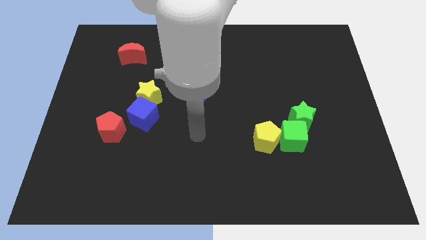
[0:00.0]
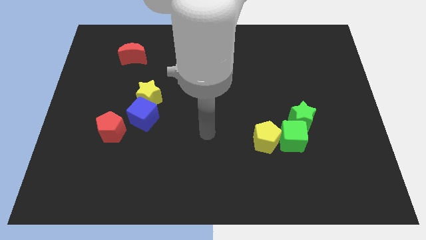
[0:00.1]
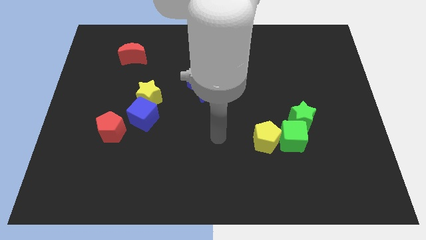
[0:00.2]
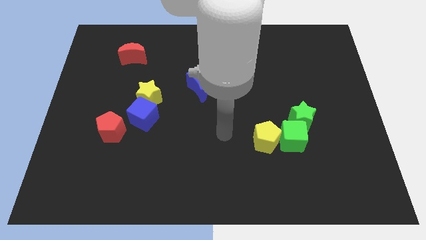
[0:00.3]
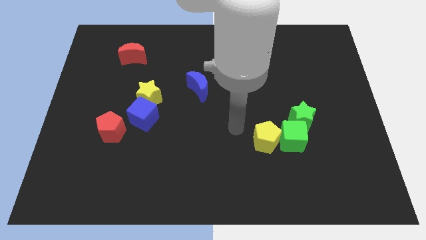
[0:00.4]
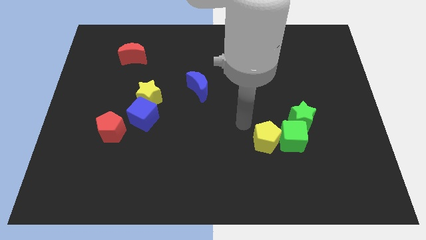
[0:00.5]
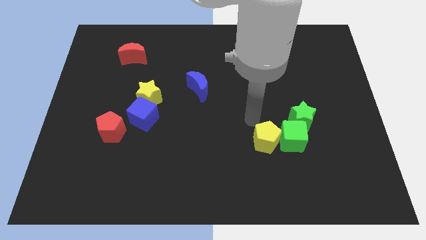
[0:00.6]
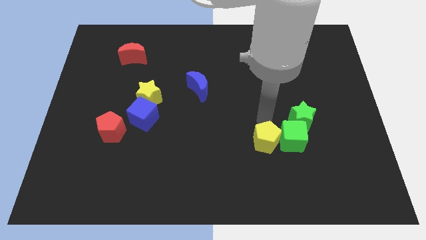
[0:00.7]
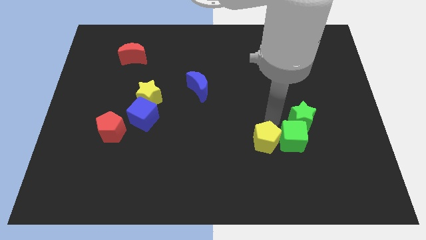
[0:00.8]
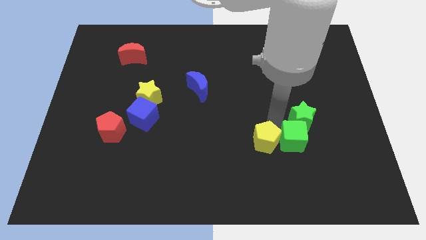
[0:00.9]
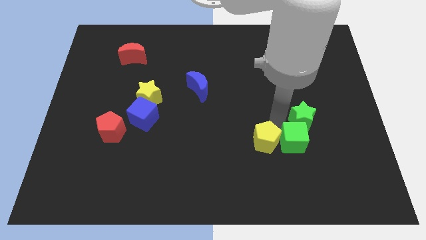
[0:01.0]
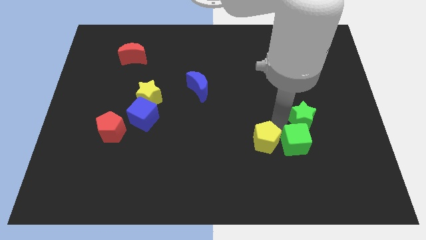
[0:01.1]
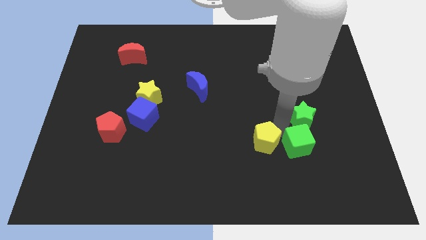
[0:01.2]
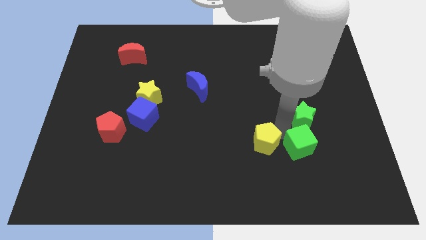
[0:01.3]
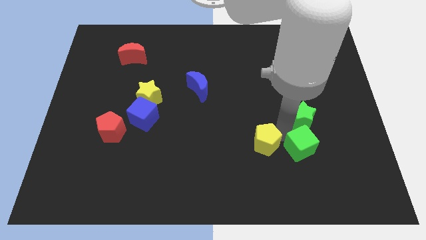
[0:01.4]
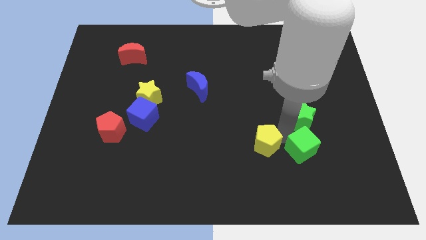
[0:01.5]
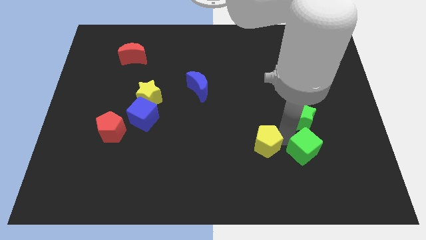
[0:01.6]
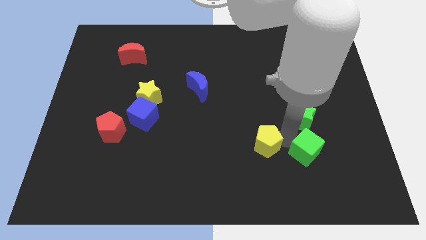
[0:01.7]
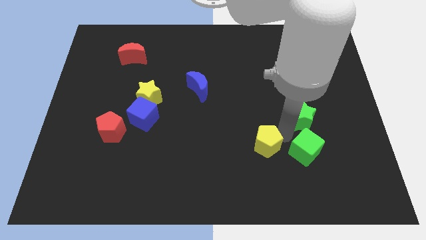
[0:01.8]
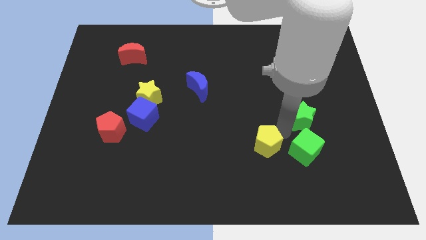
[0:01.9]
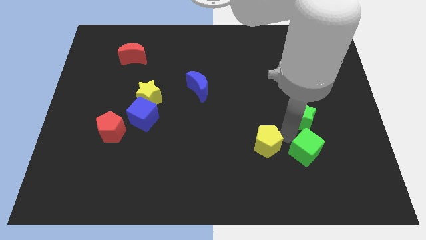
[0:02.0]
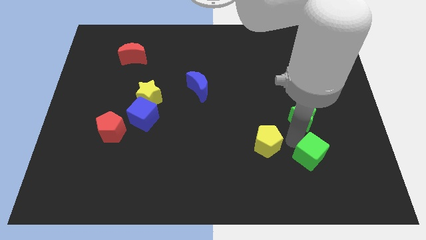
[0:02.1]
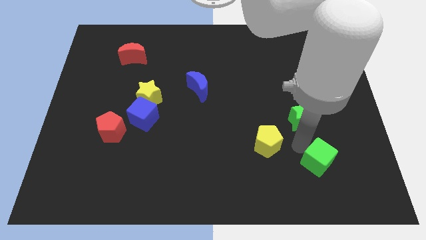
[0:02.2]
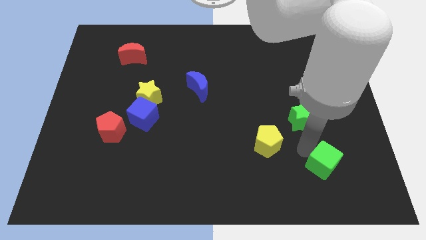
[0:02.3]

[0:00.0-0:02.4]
separate the green cube from the green star and yellow pentagon

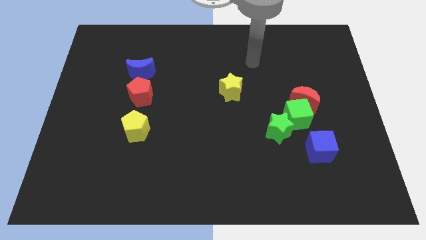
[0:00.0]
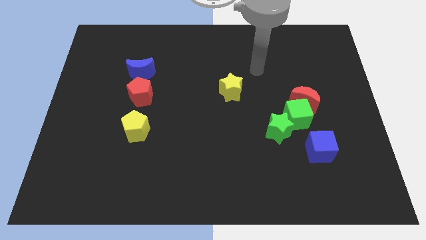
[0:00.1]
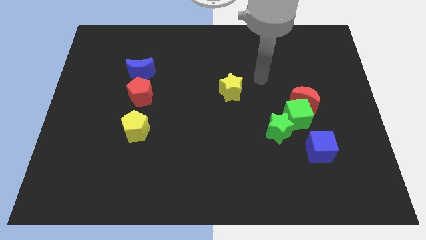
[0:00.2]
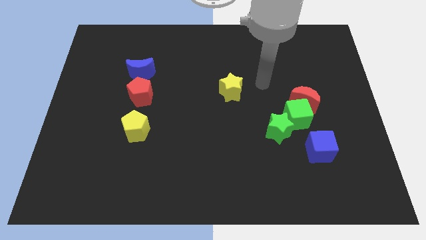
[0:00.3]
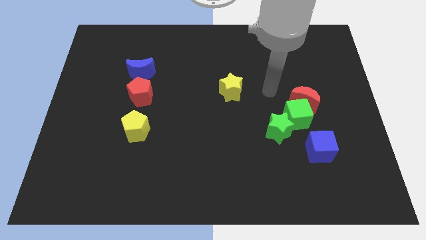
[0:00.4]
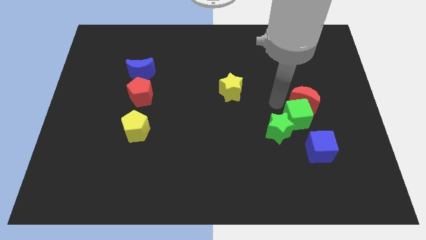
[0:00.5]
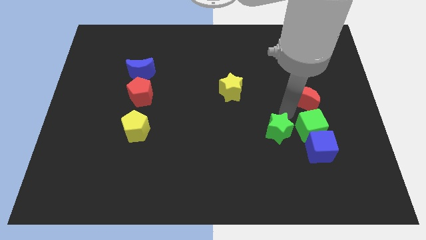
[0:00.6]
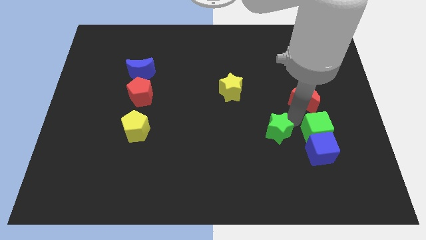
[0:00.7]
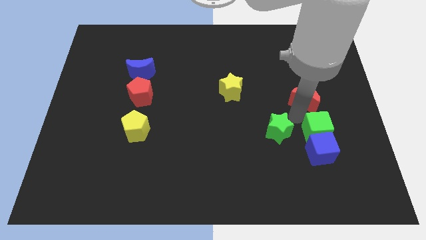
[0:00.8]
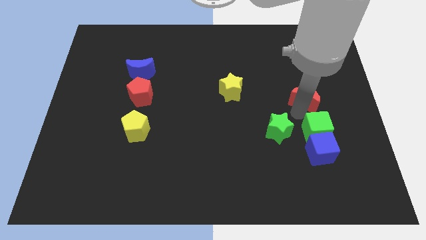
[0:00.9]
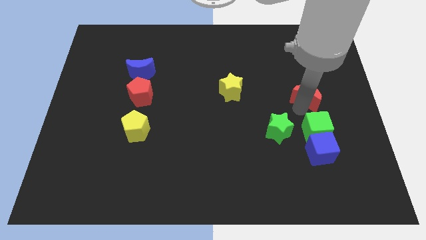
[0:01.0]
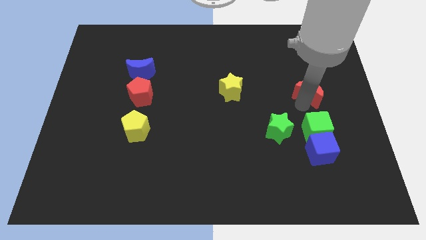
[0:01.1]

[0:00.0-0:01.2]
move the red moon away from the green cube

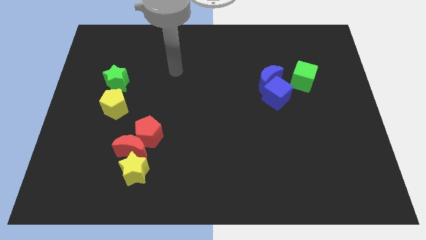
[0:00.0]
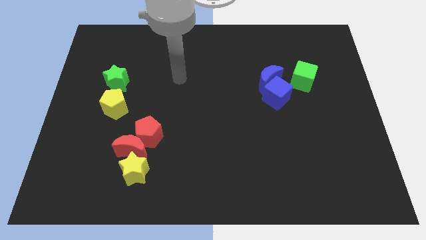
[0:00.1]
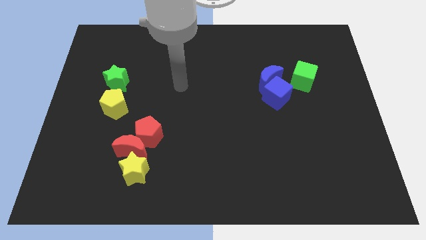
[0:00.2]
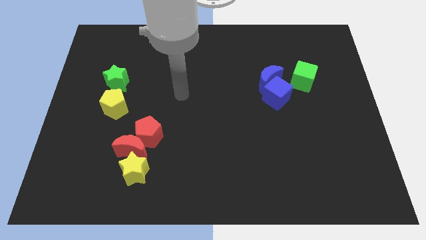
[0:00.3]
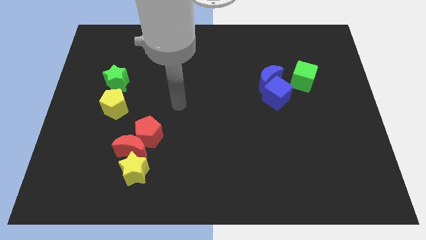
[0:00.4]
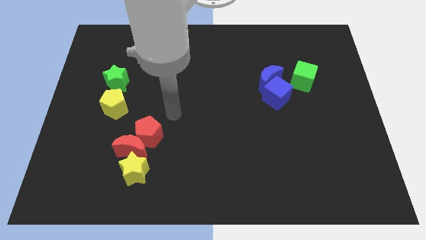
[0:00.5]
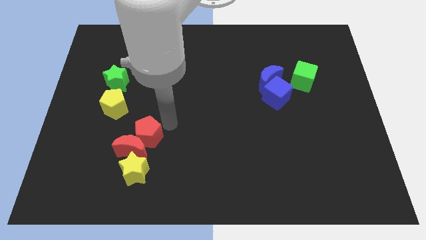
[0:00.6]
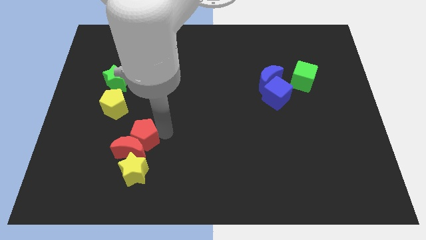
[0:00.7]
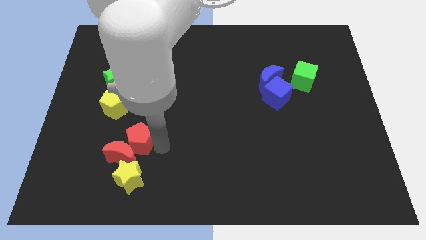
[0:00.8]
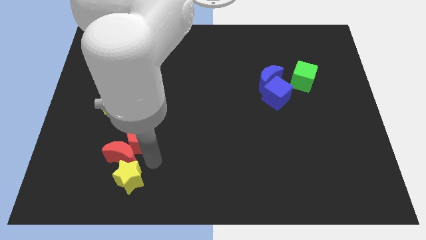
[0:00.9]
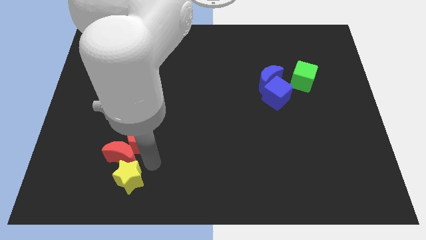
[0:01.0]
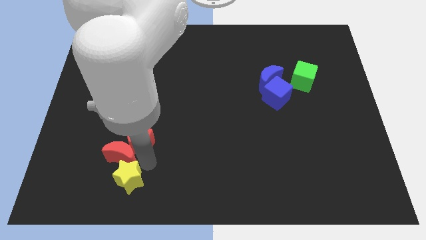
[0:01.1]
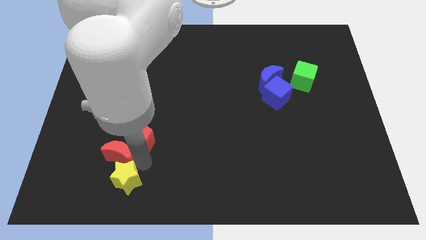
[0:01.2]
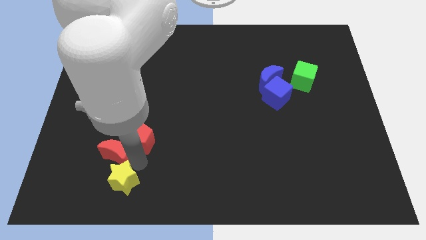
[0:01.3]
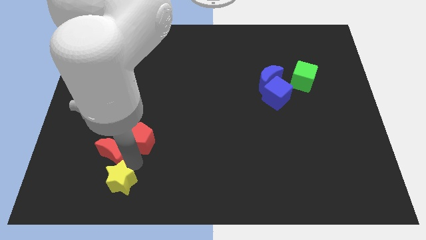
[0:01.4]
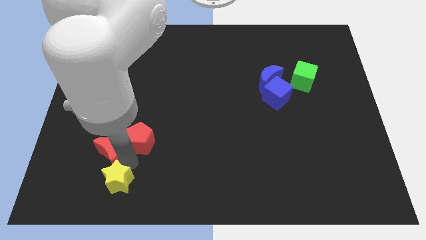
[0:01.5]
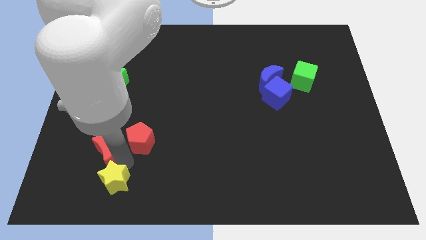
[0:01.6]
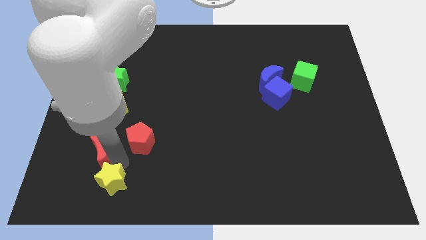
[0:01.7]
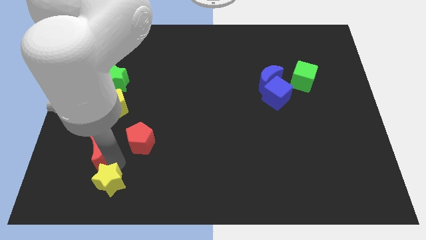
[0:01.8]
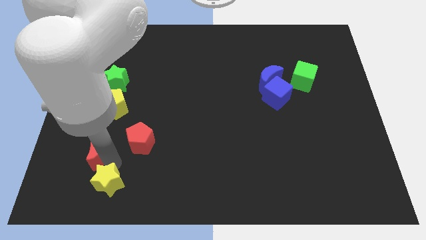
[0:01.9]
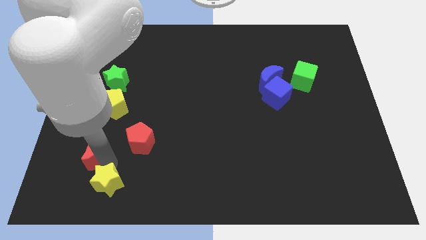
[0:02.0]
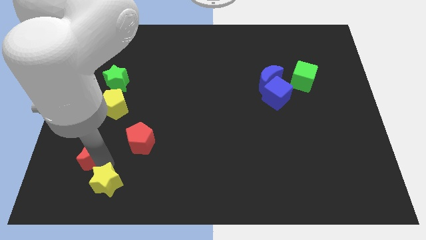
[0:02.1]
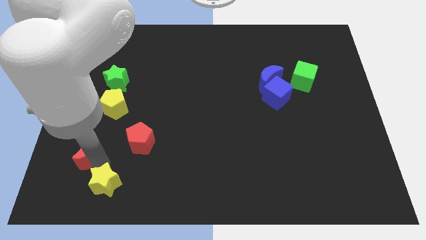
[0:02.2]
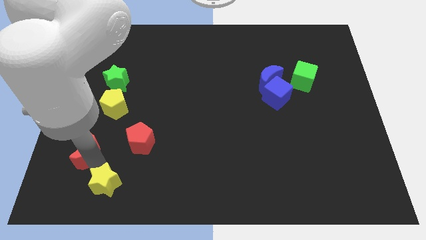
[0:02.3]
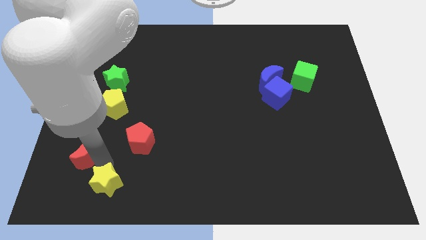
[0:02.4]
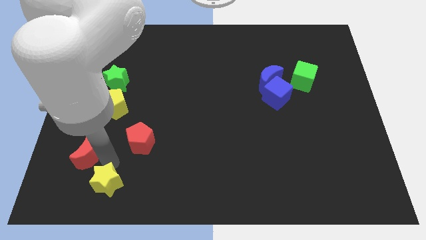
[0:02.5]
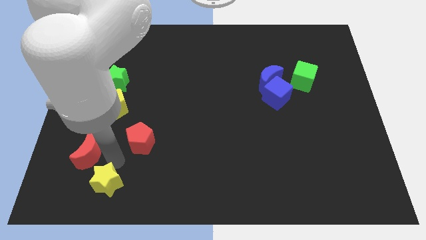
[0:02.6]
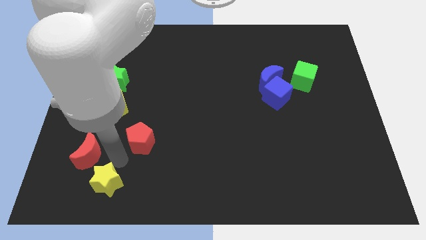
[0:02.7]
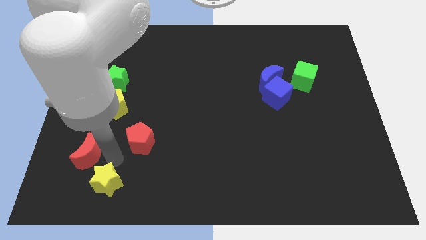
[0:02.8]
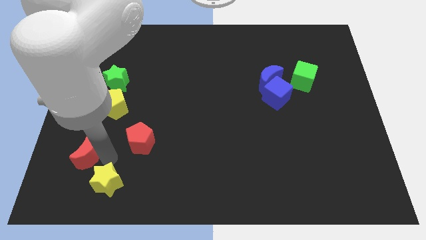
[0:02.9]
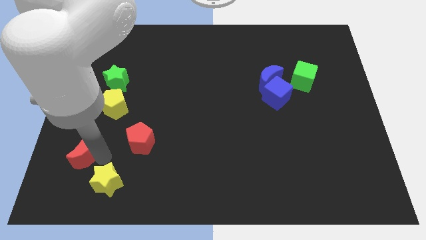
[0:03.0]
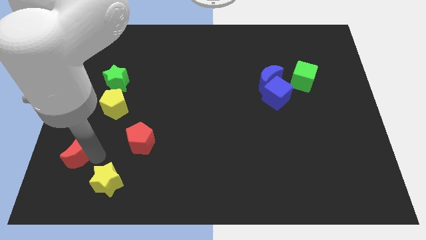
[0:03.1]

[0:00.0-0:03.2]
separate the red moon from the red pentagon and yellow star

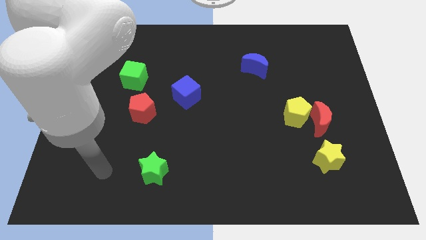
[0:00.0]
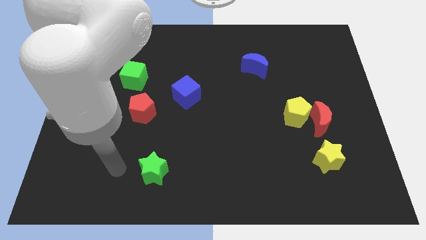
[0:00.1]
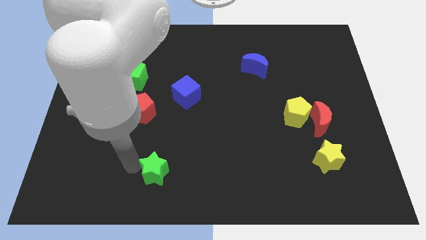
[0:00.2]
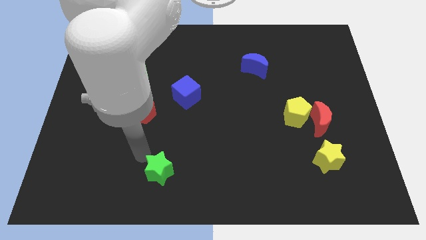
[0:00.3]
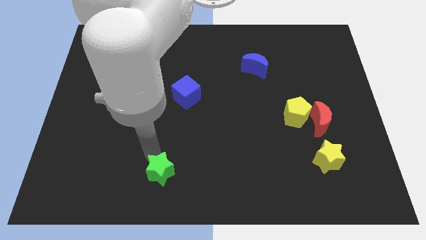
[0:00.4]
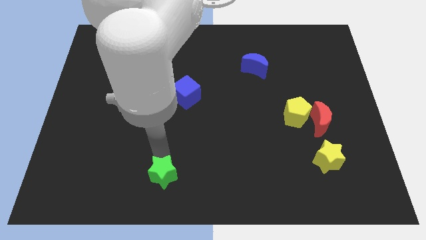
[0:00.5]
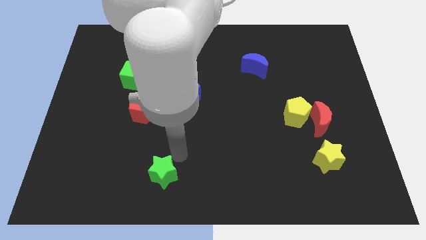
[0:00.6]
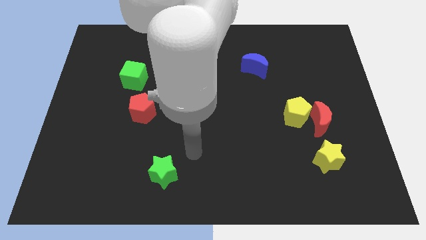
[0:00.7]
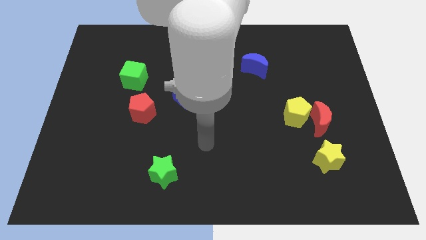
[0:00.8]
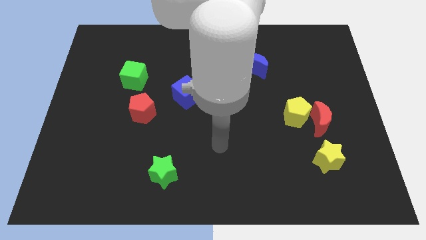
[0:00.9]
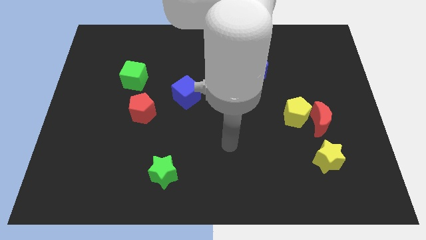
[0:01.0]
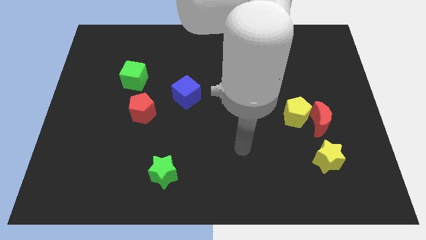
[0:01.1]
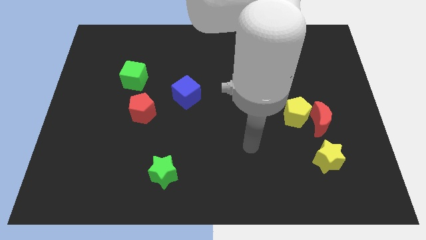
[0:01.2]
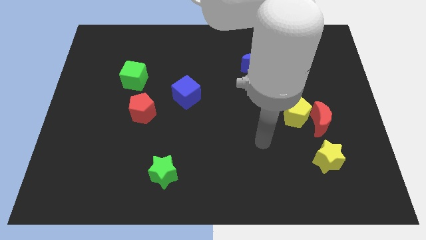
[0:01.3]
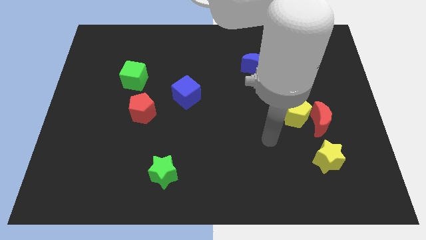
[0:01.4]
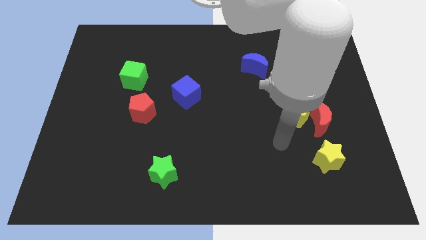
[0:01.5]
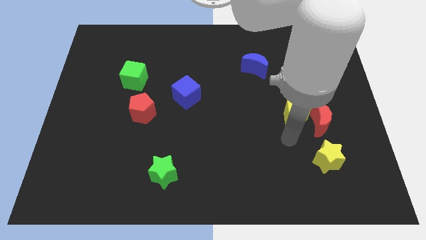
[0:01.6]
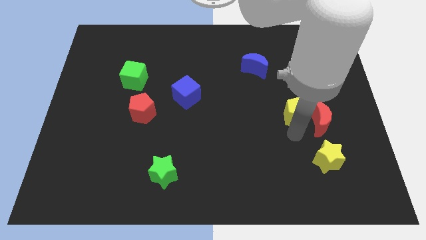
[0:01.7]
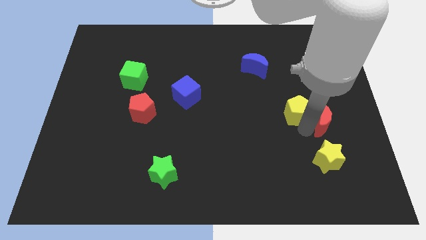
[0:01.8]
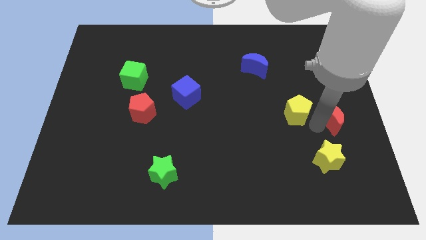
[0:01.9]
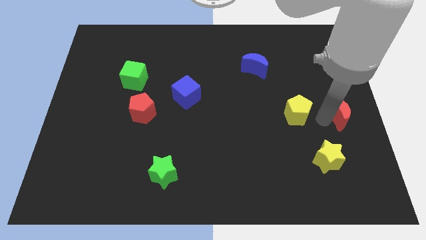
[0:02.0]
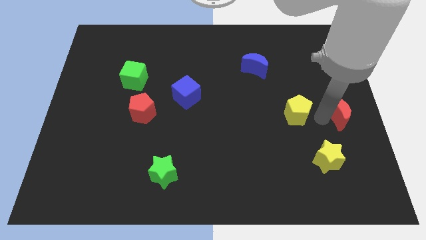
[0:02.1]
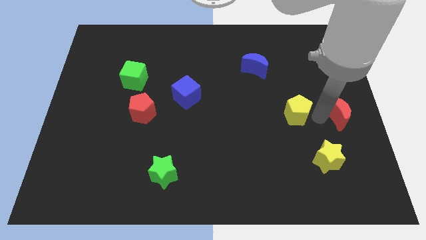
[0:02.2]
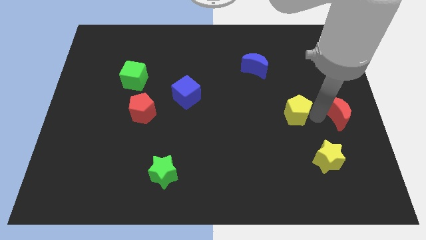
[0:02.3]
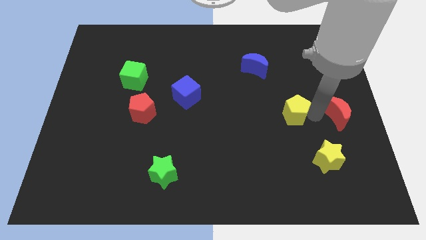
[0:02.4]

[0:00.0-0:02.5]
move the yellow pentagon away from the red moon

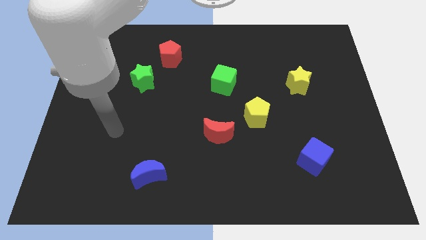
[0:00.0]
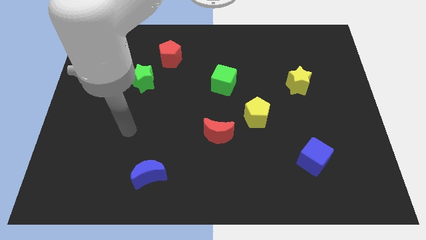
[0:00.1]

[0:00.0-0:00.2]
move the red moon away from the yellow pentagon

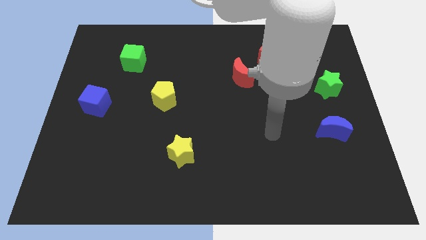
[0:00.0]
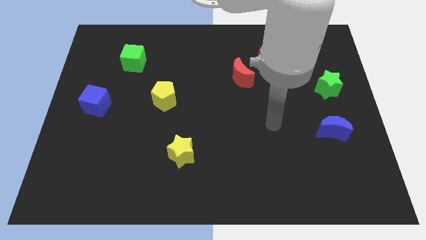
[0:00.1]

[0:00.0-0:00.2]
move the red moon away from the red pentagon
